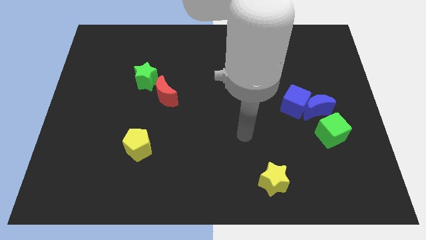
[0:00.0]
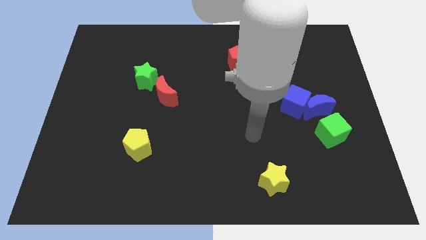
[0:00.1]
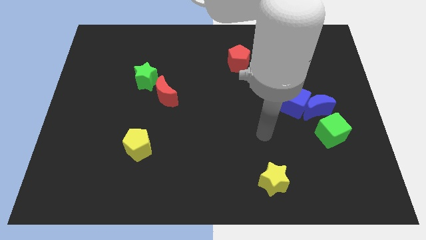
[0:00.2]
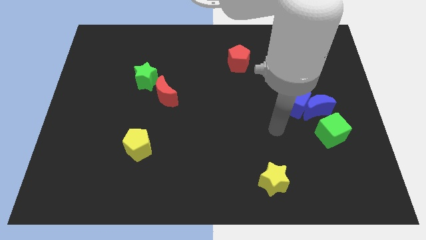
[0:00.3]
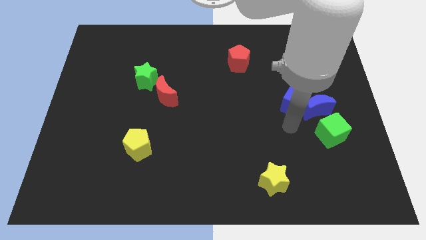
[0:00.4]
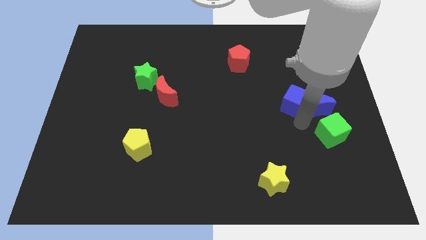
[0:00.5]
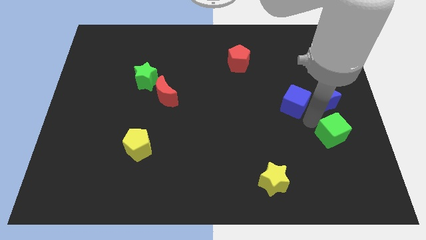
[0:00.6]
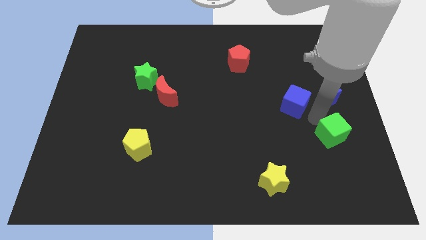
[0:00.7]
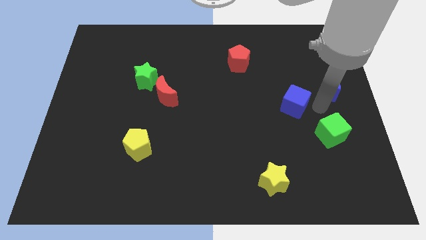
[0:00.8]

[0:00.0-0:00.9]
separate the blue cube from the blue moon

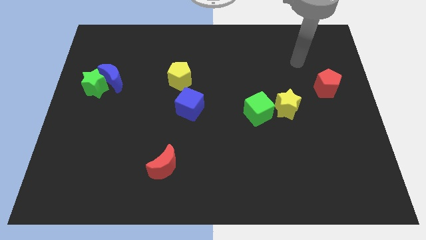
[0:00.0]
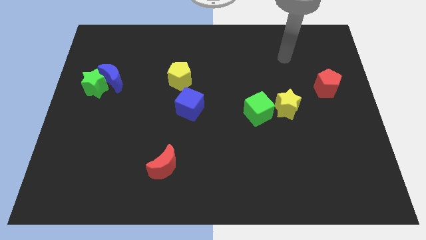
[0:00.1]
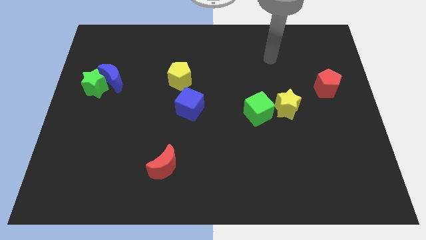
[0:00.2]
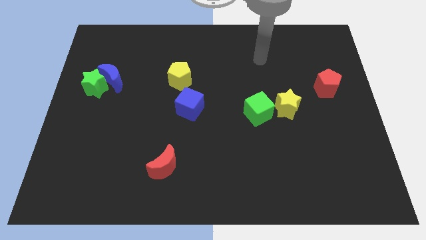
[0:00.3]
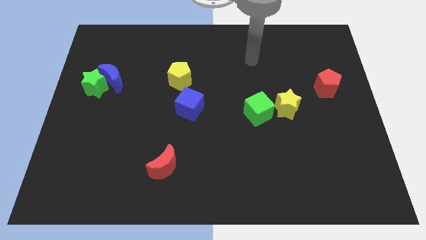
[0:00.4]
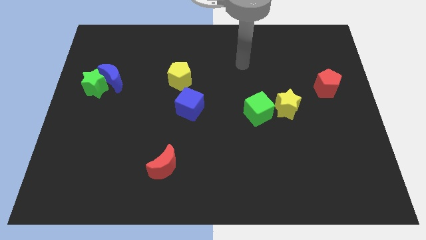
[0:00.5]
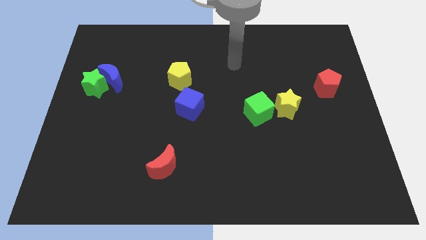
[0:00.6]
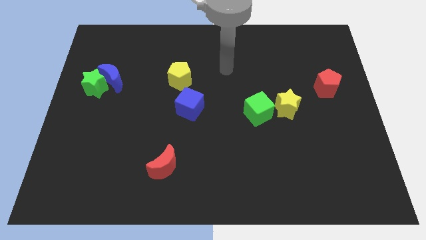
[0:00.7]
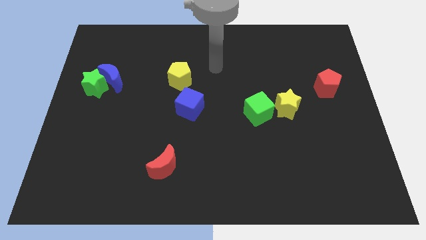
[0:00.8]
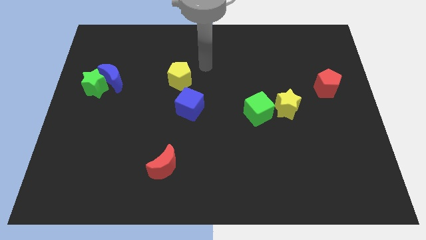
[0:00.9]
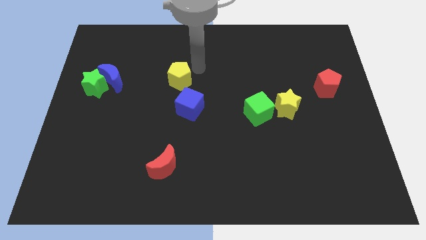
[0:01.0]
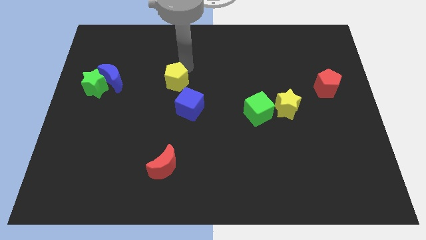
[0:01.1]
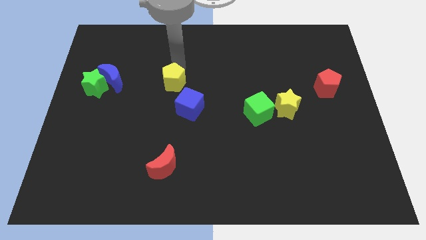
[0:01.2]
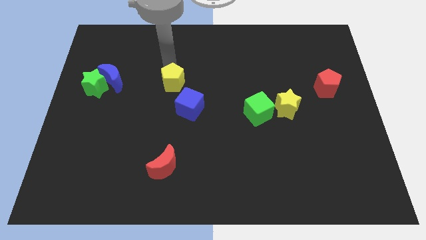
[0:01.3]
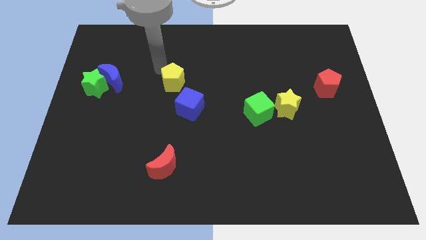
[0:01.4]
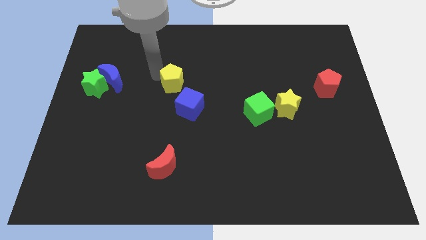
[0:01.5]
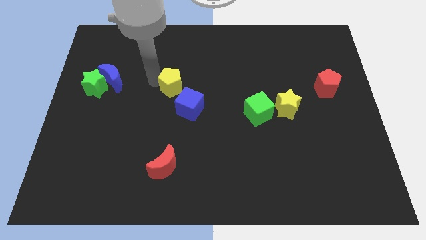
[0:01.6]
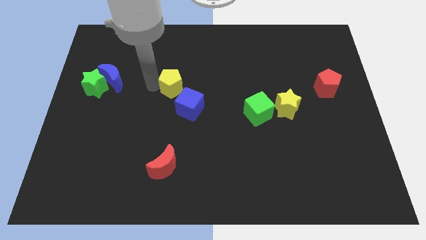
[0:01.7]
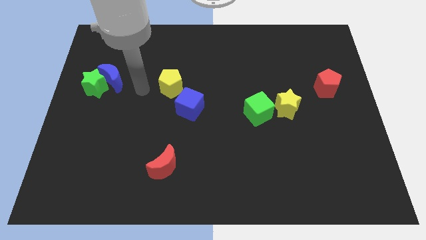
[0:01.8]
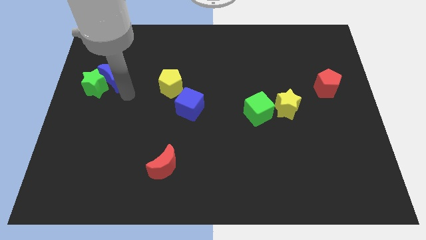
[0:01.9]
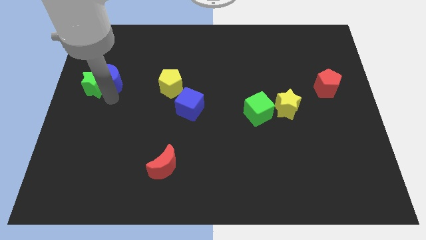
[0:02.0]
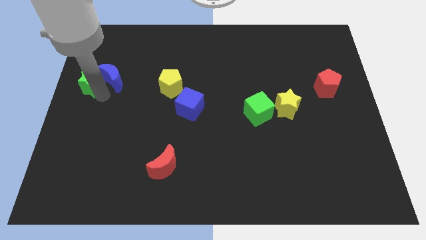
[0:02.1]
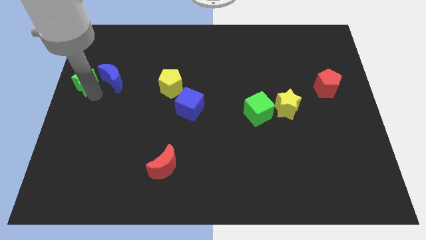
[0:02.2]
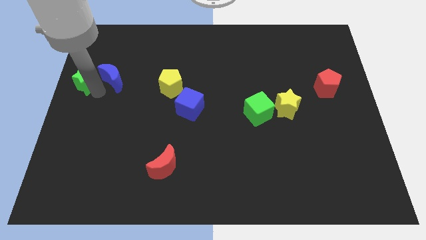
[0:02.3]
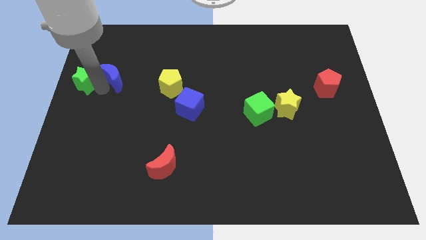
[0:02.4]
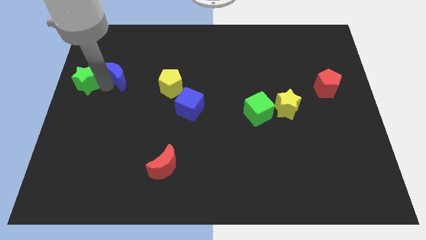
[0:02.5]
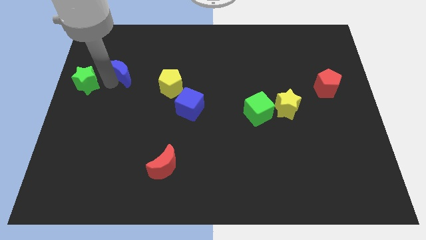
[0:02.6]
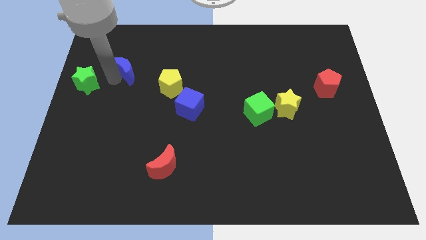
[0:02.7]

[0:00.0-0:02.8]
pull the blue moon apart from the green star

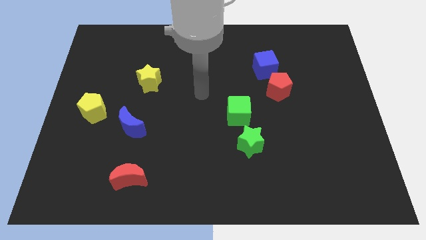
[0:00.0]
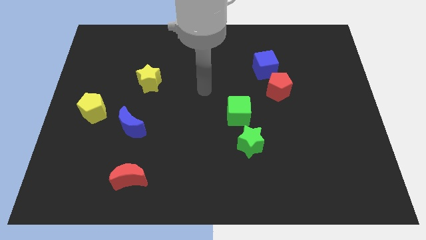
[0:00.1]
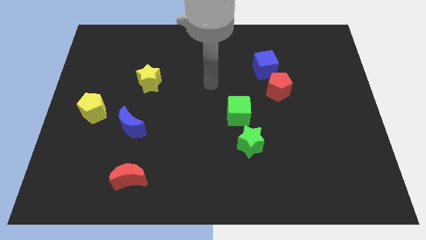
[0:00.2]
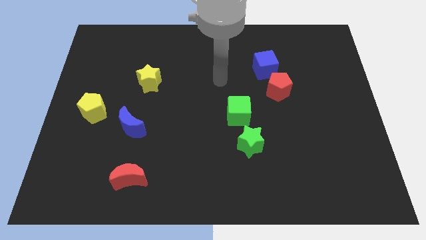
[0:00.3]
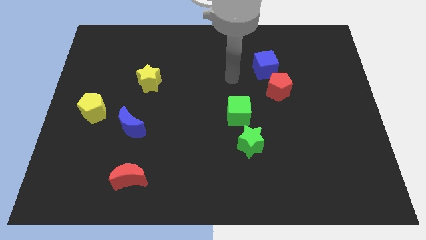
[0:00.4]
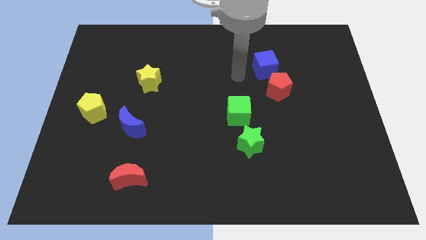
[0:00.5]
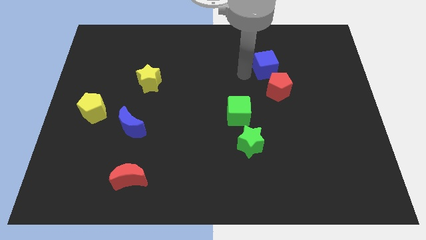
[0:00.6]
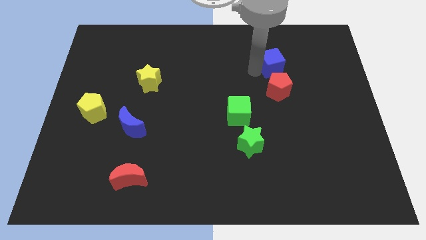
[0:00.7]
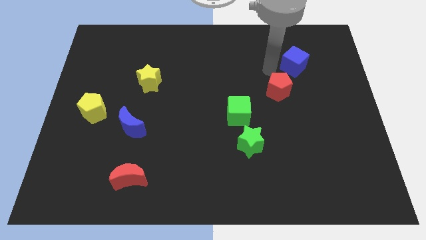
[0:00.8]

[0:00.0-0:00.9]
pull the red pentagon apart from the blue cube

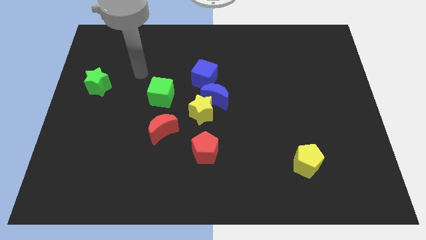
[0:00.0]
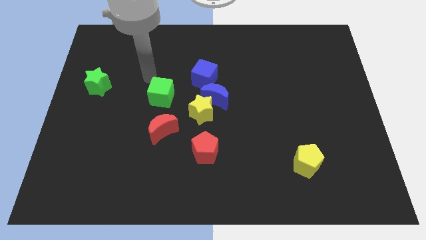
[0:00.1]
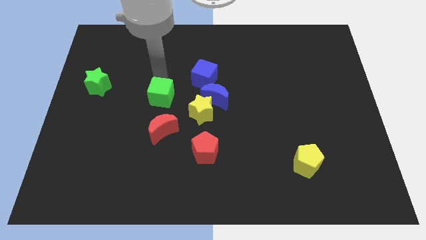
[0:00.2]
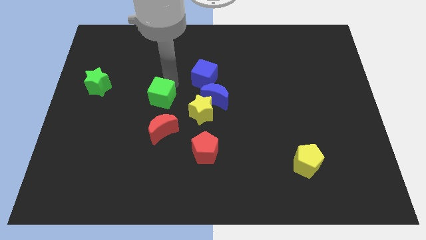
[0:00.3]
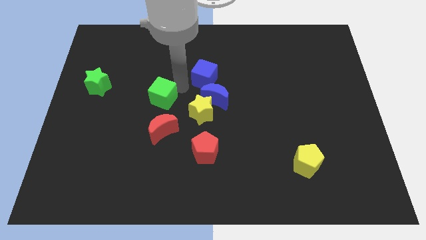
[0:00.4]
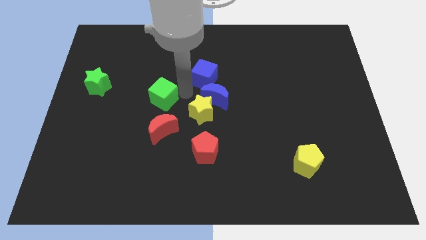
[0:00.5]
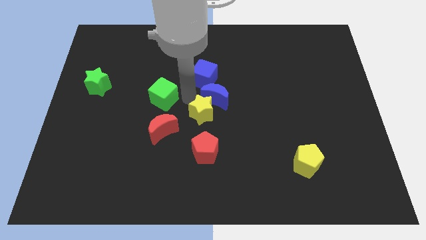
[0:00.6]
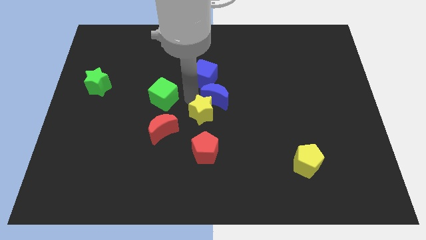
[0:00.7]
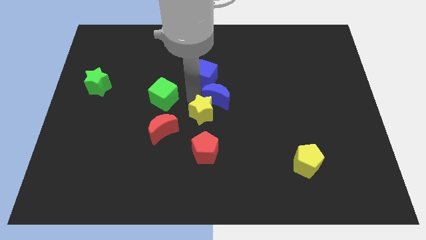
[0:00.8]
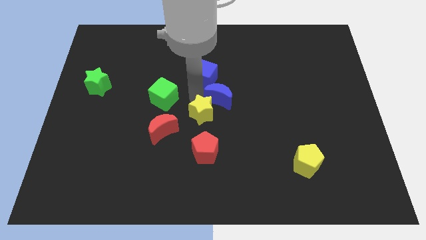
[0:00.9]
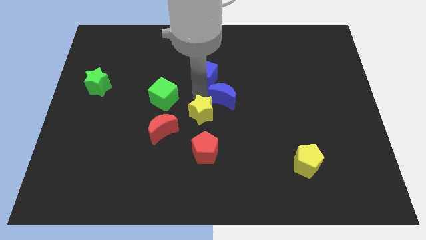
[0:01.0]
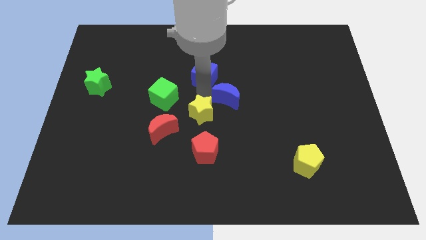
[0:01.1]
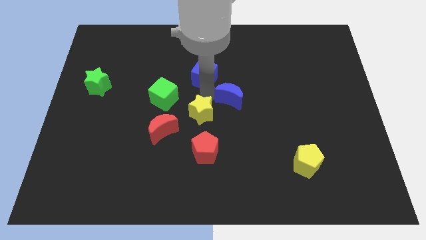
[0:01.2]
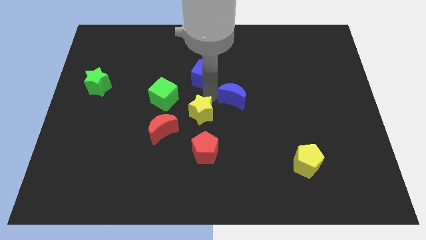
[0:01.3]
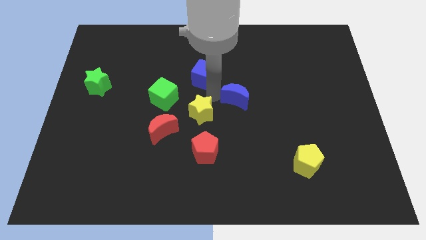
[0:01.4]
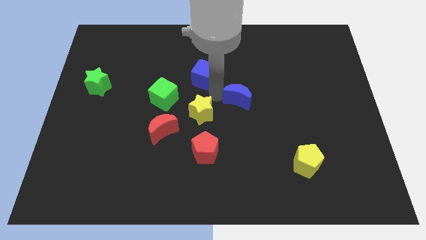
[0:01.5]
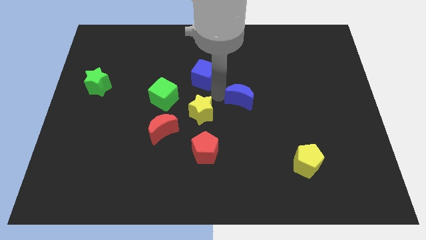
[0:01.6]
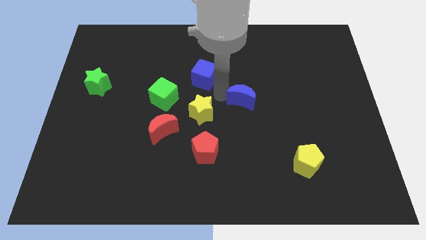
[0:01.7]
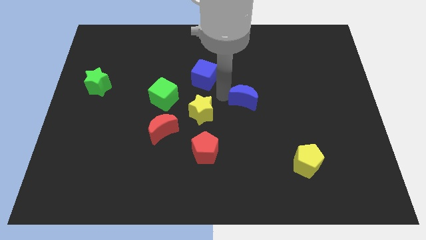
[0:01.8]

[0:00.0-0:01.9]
separate the blue moon from the yellow star and blue cube

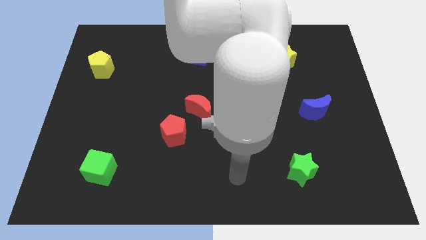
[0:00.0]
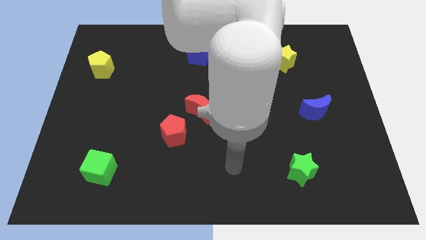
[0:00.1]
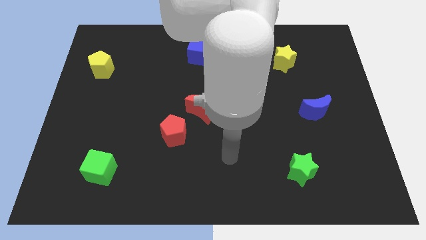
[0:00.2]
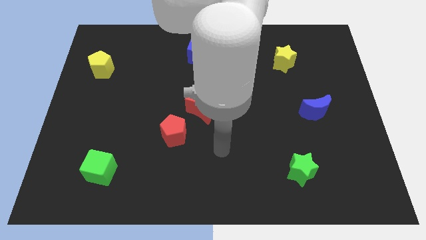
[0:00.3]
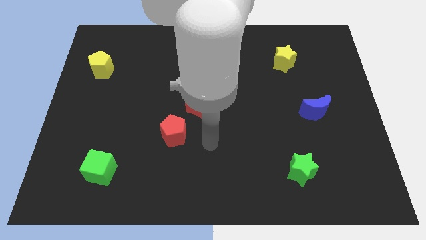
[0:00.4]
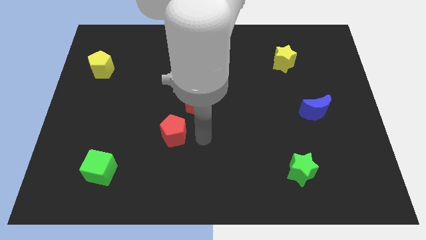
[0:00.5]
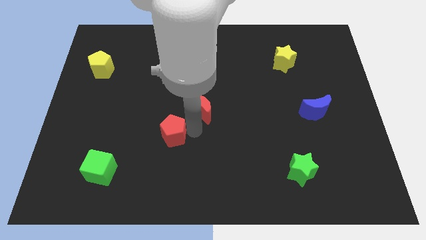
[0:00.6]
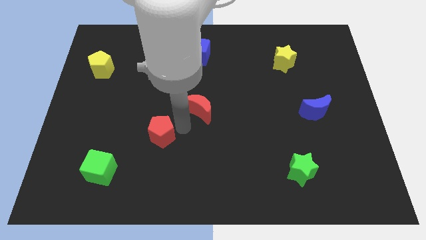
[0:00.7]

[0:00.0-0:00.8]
move the red moon away from the red pentagon

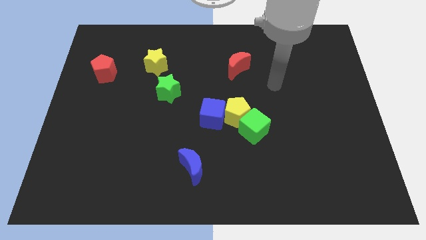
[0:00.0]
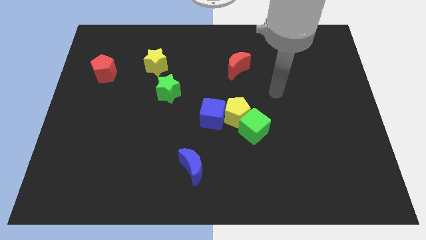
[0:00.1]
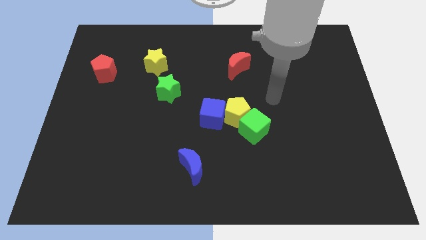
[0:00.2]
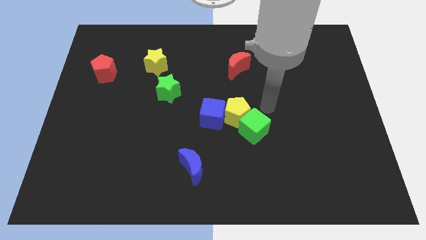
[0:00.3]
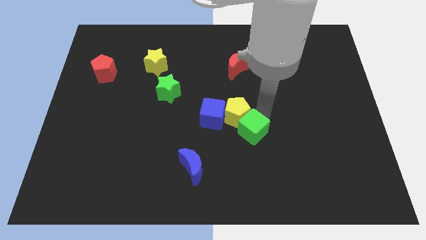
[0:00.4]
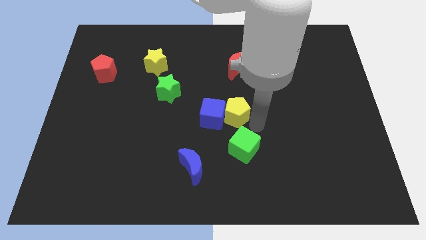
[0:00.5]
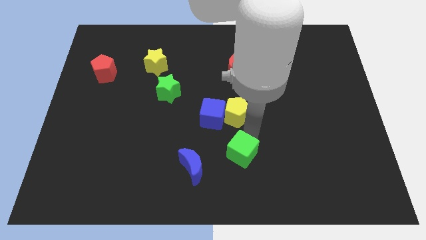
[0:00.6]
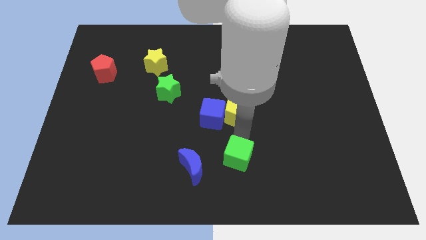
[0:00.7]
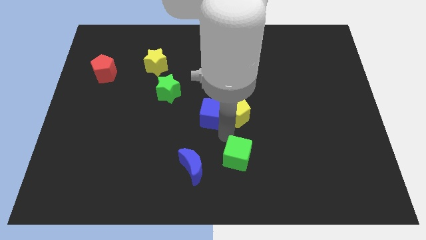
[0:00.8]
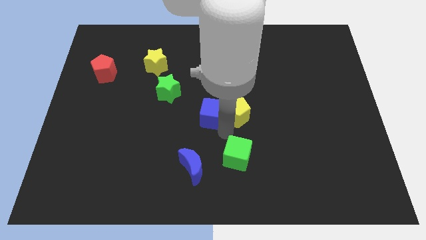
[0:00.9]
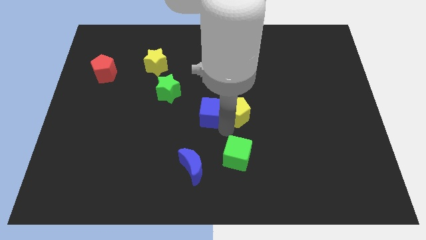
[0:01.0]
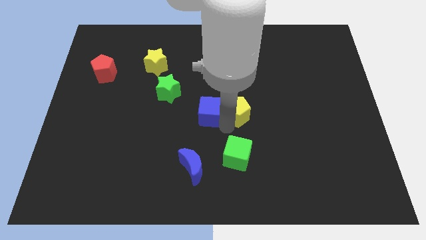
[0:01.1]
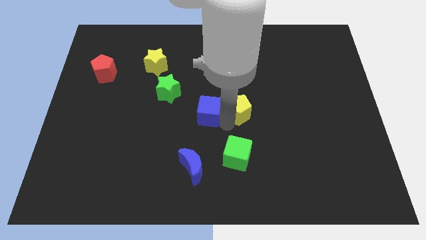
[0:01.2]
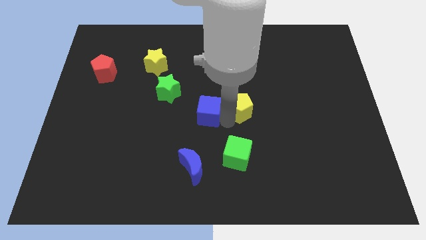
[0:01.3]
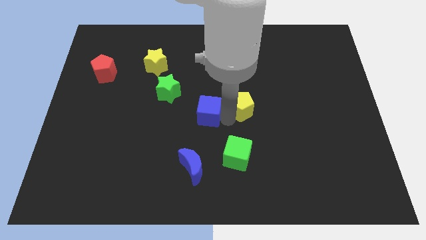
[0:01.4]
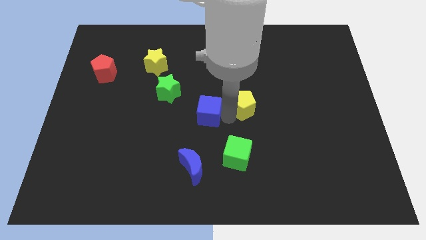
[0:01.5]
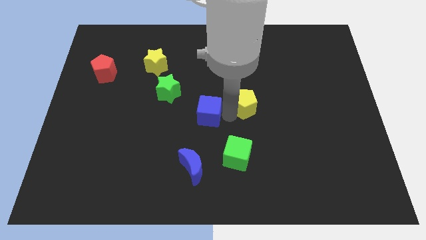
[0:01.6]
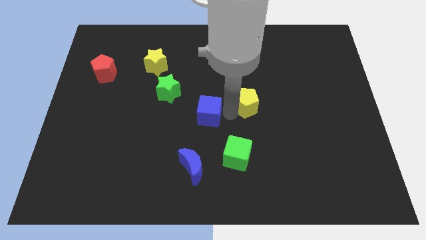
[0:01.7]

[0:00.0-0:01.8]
move the yellow pentagon away from the blue cube and green cube

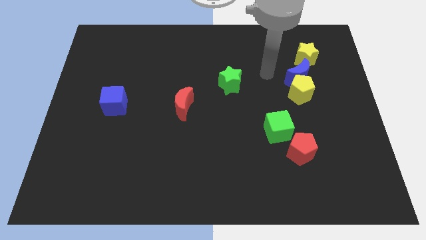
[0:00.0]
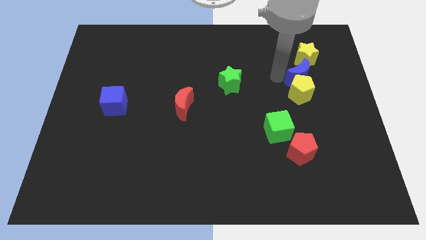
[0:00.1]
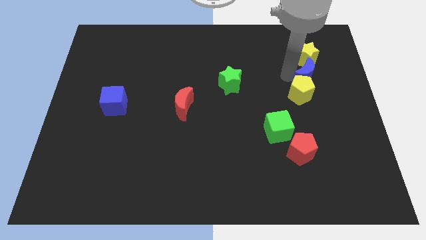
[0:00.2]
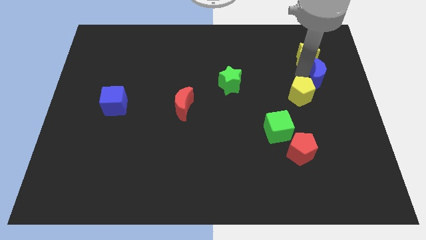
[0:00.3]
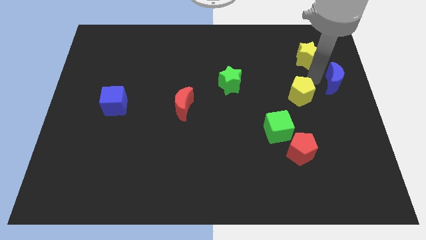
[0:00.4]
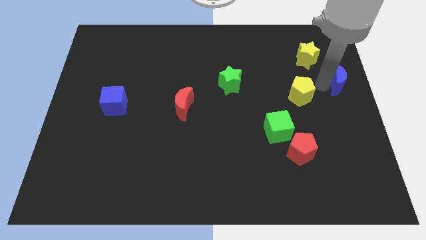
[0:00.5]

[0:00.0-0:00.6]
pull the yellow pentagon apart from the blue moon
